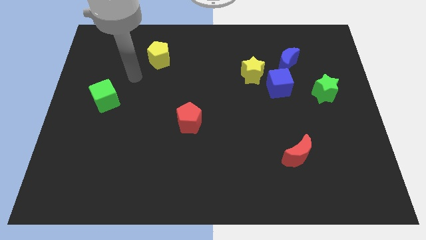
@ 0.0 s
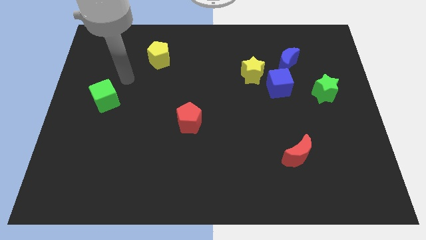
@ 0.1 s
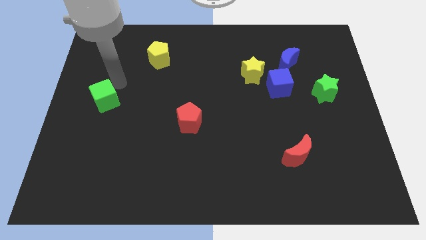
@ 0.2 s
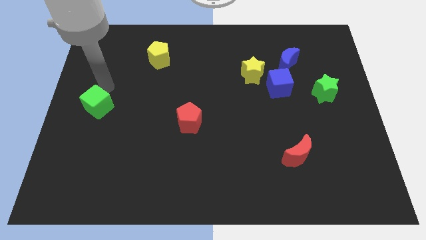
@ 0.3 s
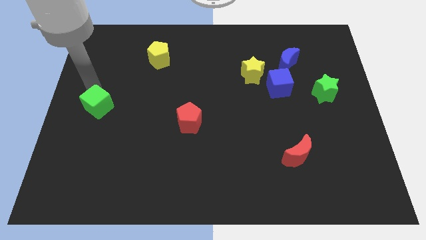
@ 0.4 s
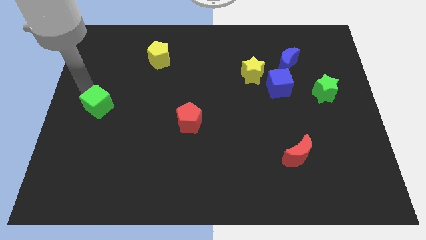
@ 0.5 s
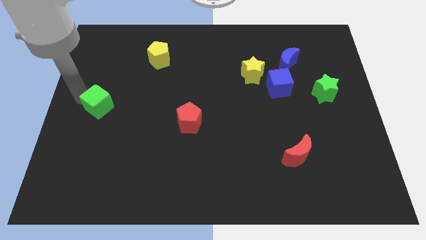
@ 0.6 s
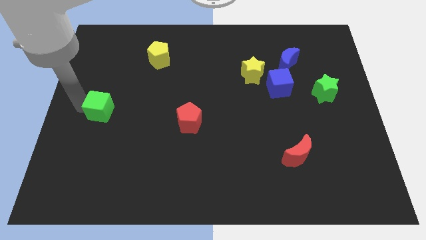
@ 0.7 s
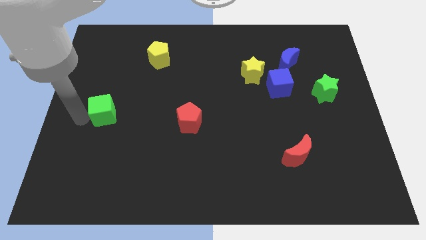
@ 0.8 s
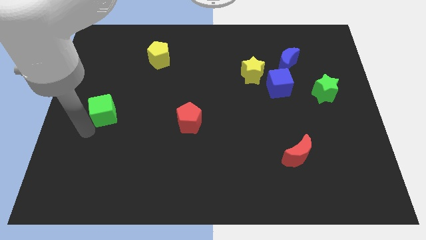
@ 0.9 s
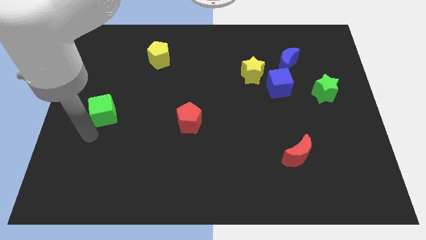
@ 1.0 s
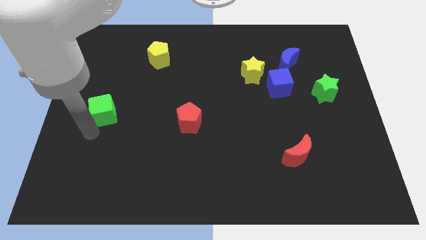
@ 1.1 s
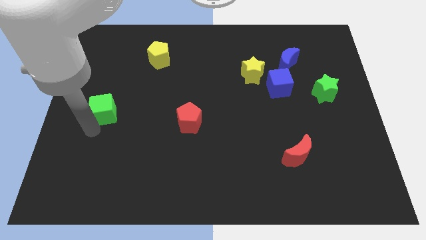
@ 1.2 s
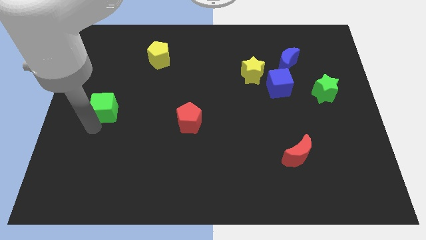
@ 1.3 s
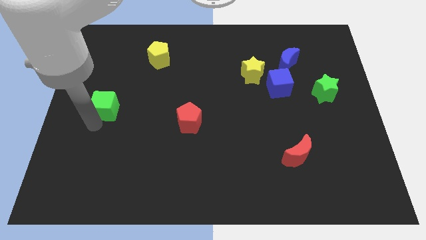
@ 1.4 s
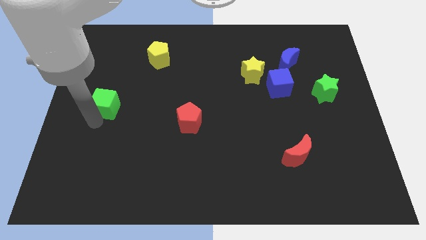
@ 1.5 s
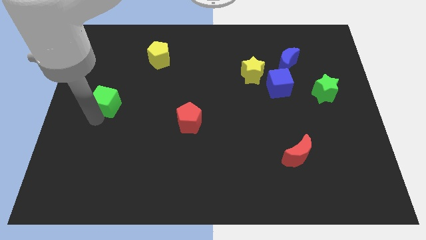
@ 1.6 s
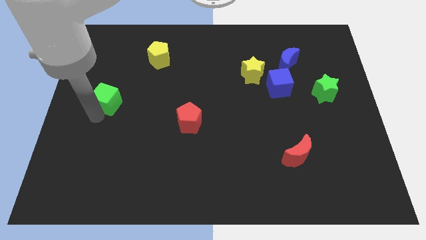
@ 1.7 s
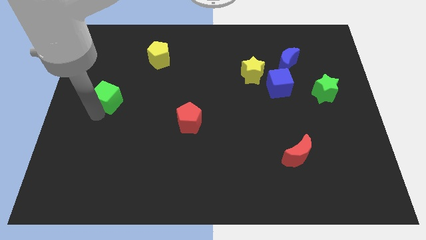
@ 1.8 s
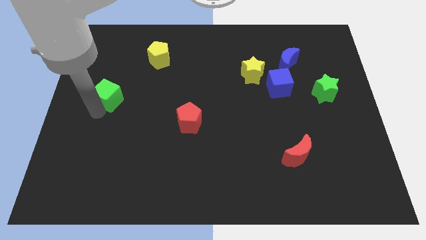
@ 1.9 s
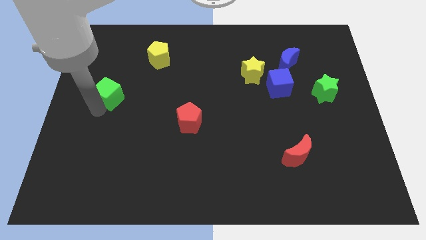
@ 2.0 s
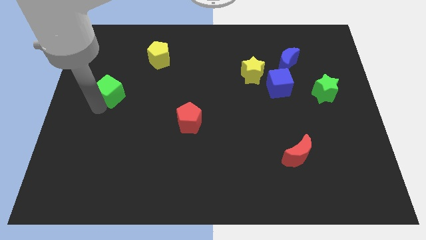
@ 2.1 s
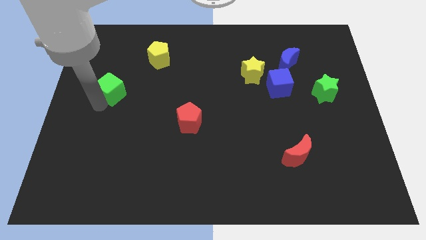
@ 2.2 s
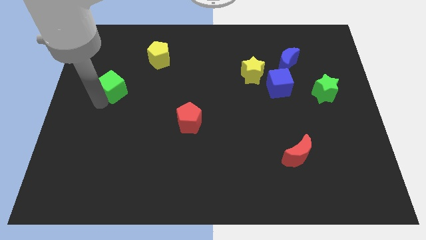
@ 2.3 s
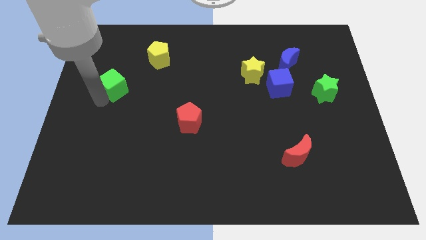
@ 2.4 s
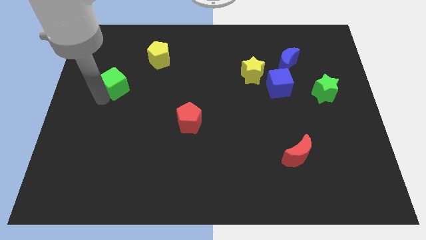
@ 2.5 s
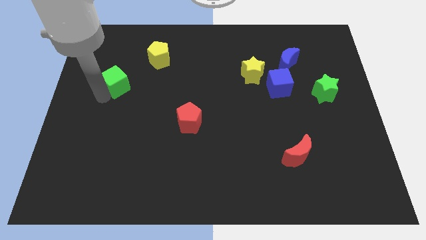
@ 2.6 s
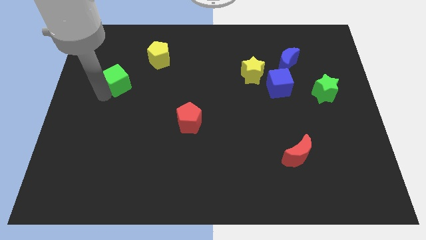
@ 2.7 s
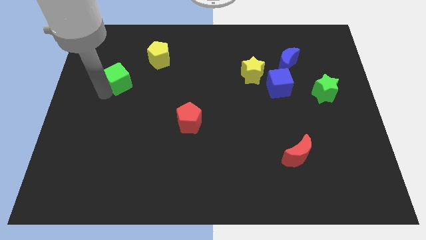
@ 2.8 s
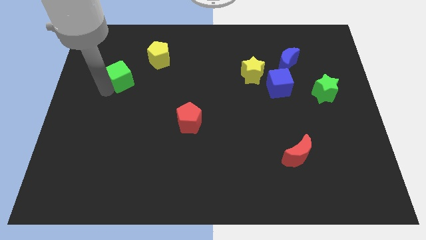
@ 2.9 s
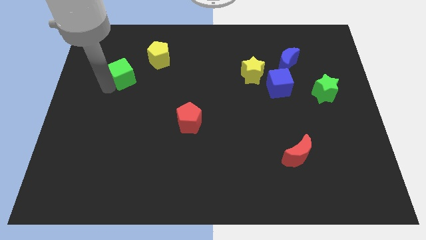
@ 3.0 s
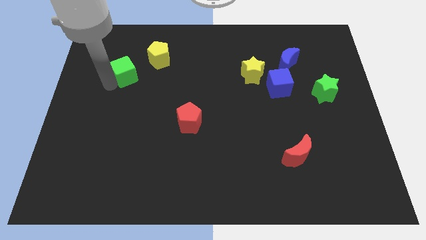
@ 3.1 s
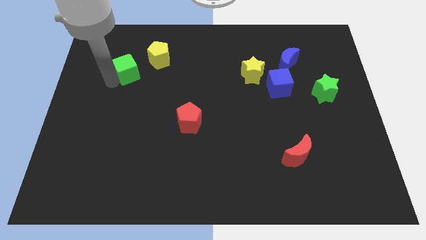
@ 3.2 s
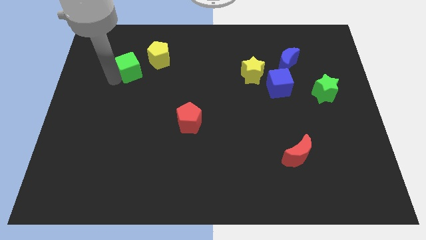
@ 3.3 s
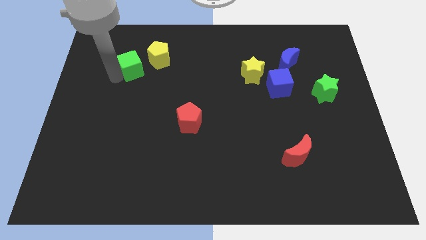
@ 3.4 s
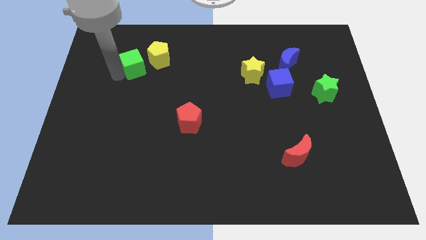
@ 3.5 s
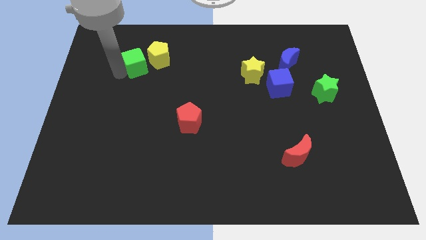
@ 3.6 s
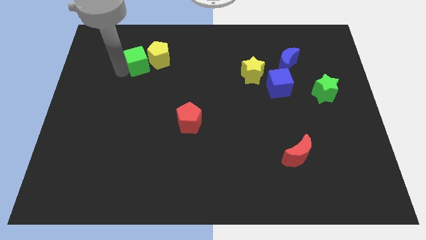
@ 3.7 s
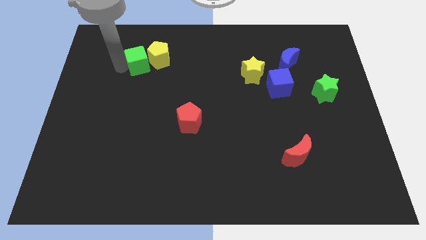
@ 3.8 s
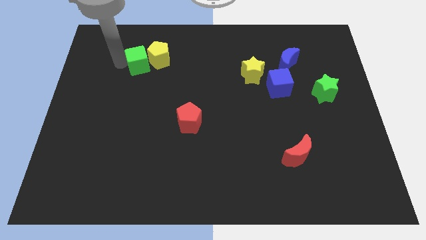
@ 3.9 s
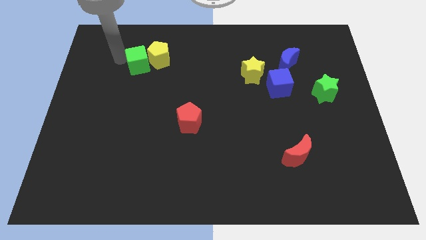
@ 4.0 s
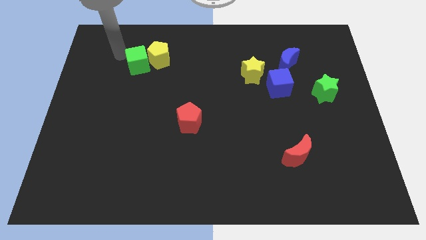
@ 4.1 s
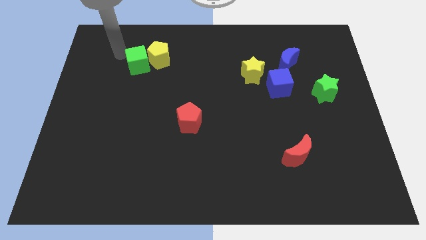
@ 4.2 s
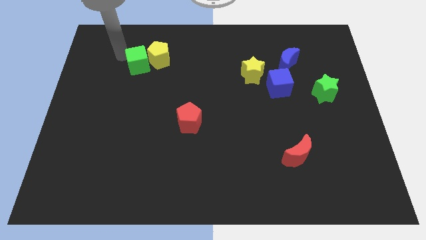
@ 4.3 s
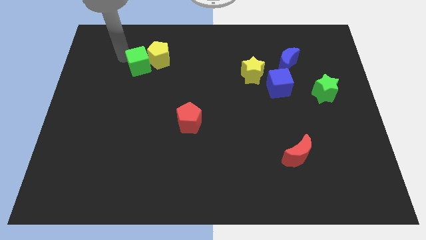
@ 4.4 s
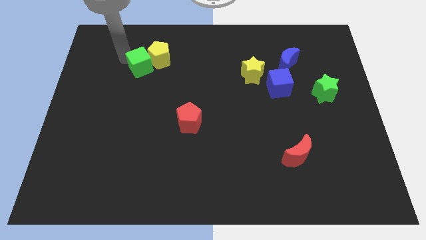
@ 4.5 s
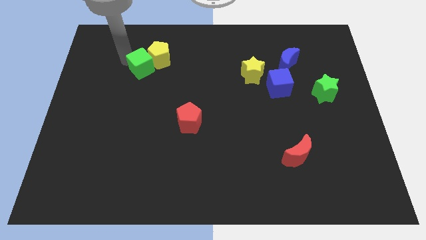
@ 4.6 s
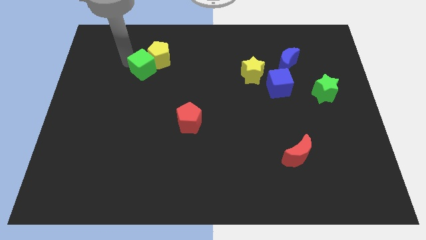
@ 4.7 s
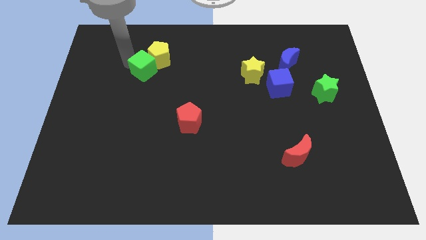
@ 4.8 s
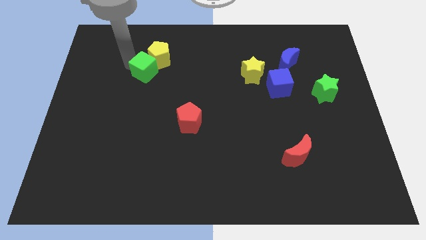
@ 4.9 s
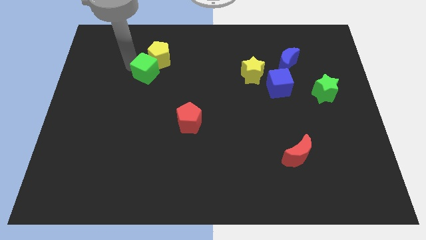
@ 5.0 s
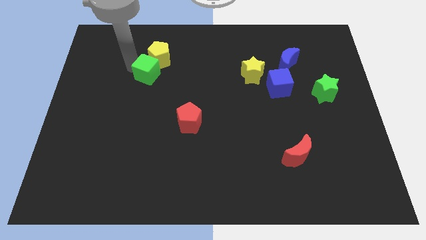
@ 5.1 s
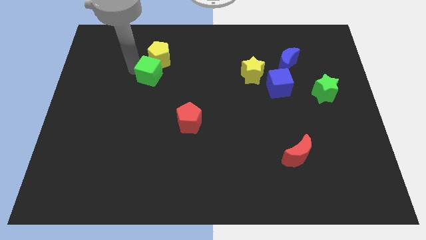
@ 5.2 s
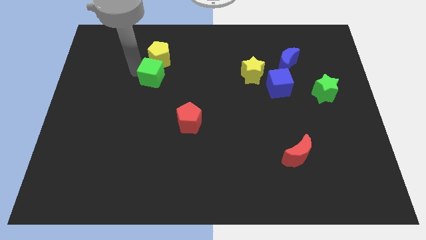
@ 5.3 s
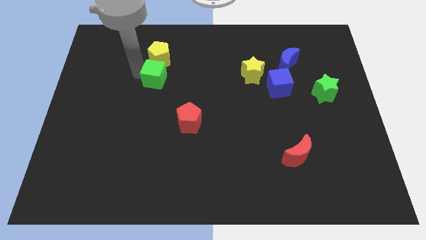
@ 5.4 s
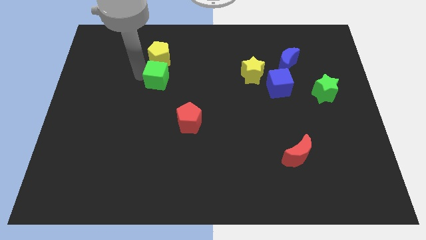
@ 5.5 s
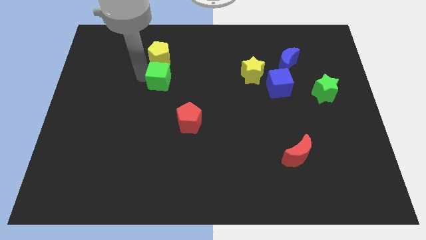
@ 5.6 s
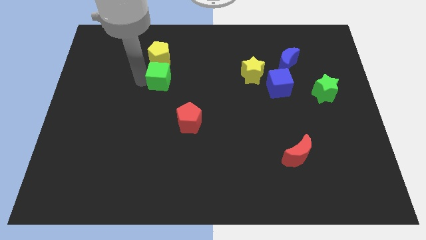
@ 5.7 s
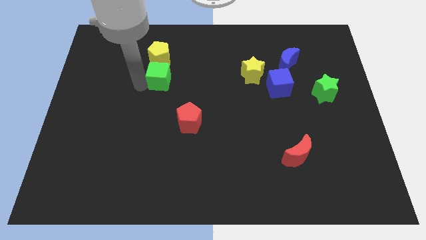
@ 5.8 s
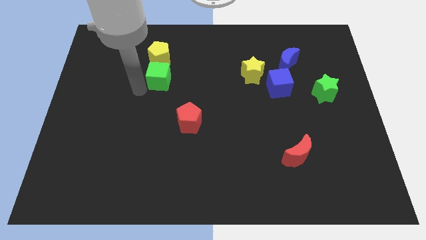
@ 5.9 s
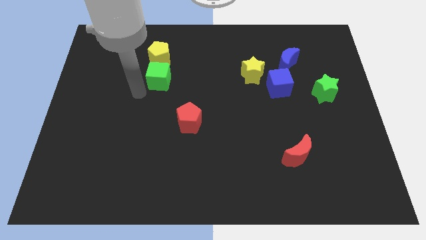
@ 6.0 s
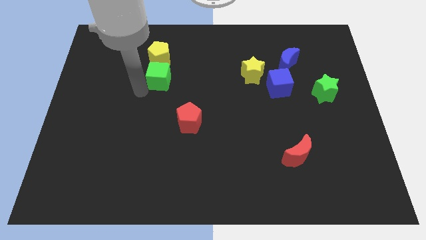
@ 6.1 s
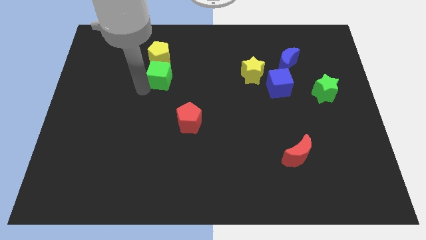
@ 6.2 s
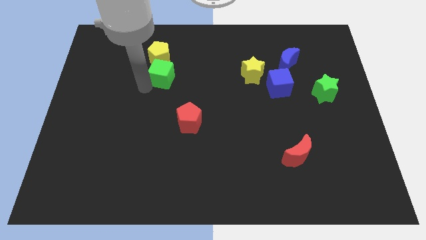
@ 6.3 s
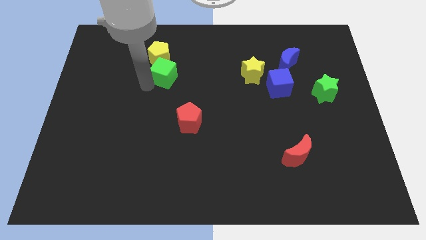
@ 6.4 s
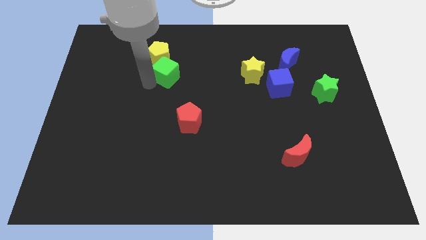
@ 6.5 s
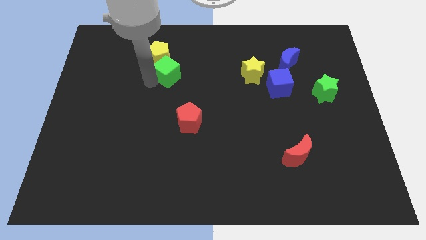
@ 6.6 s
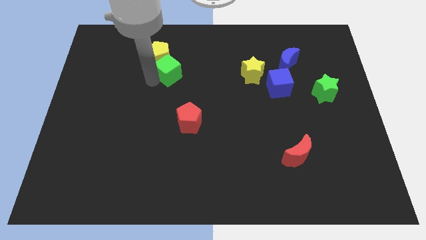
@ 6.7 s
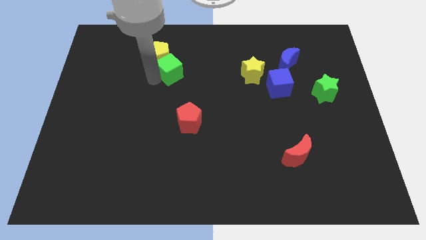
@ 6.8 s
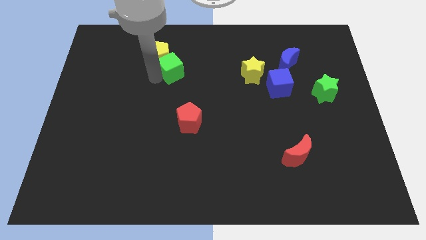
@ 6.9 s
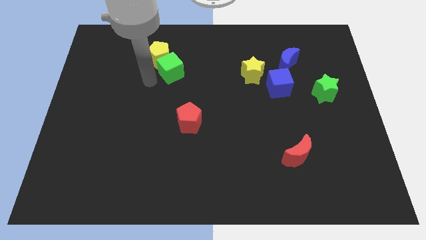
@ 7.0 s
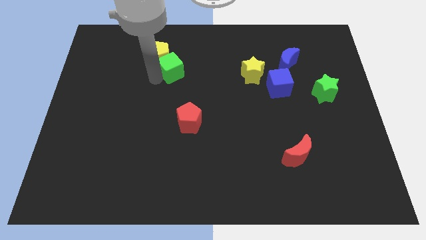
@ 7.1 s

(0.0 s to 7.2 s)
put the green cube just right of the yellow pentagon

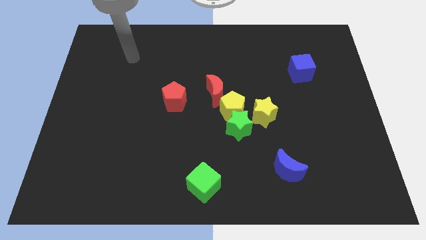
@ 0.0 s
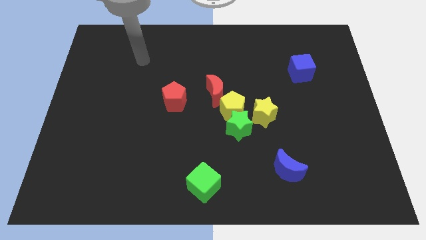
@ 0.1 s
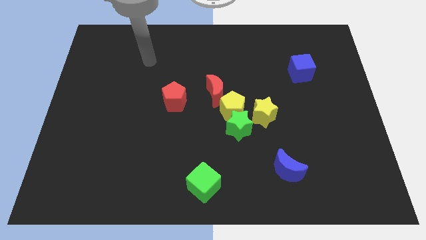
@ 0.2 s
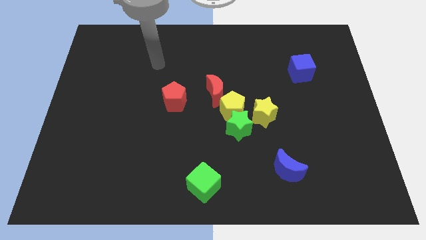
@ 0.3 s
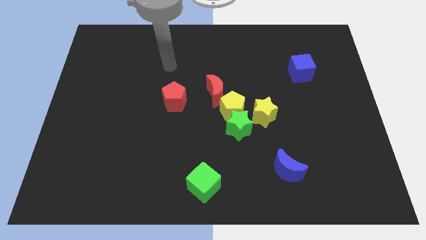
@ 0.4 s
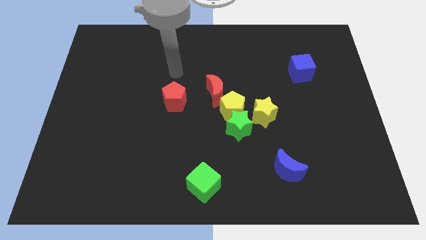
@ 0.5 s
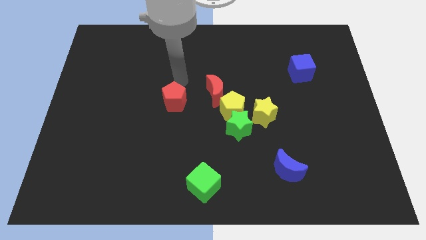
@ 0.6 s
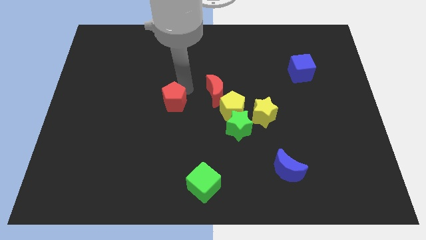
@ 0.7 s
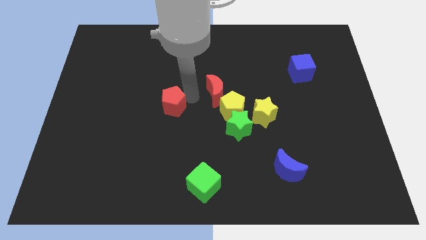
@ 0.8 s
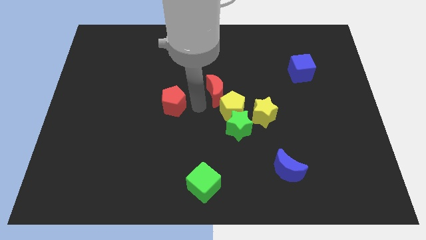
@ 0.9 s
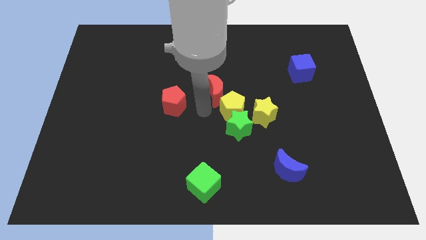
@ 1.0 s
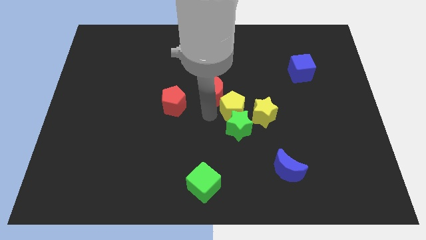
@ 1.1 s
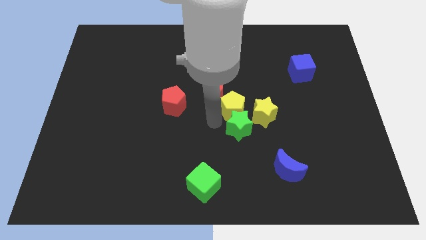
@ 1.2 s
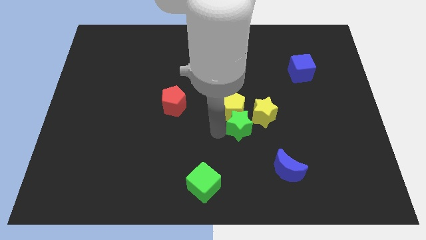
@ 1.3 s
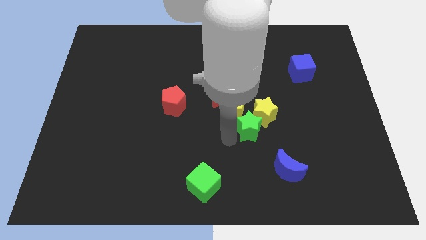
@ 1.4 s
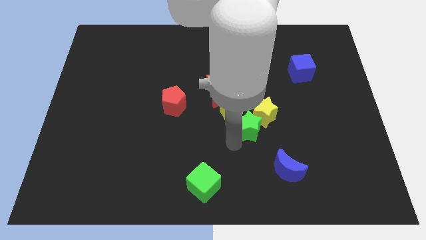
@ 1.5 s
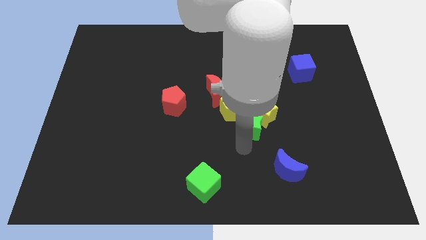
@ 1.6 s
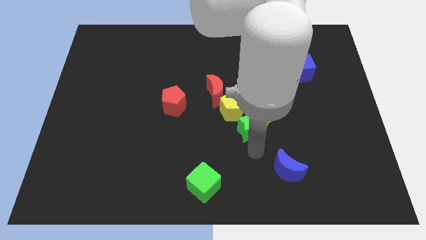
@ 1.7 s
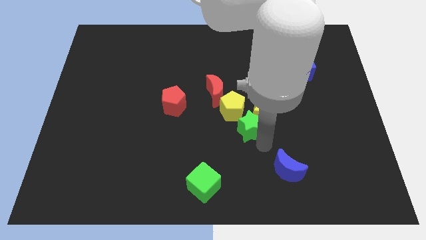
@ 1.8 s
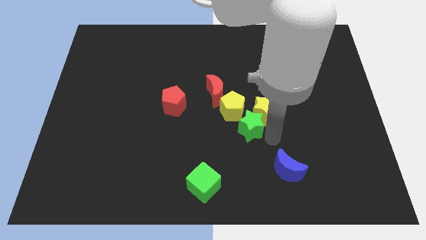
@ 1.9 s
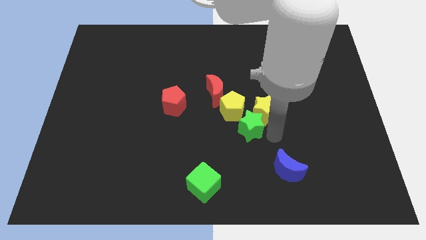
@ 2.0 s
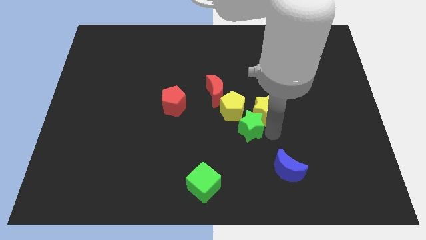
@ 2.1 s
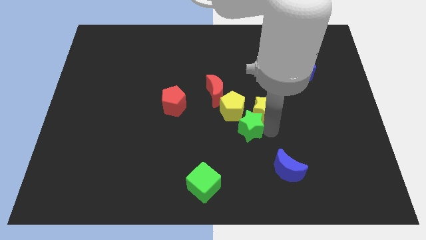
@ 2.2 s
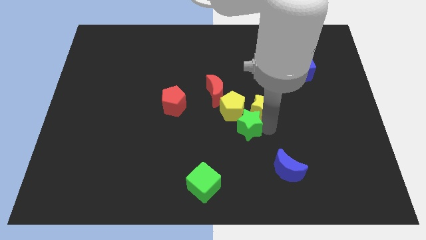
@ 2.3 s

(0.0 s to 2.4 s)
slide the yellow star to the top right of the yellow pentagon
